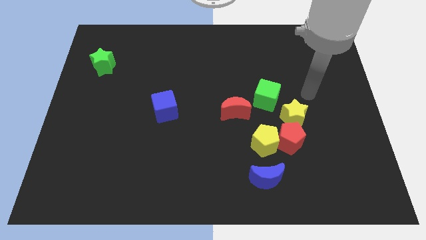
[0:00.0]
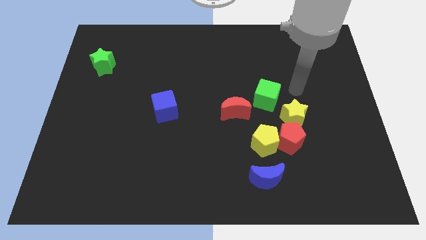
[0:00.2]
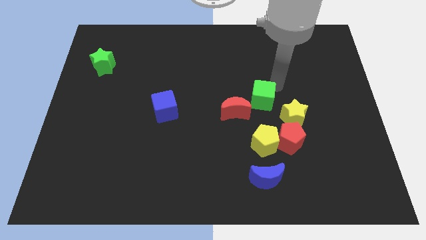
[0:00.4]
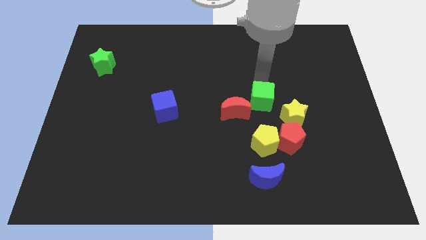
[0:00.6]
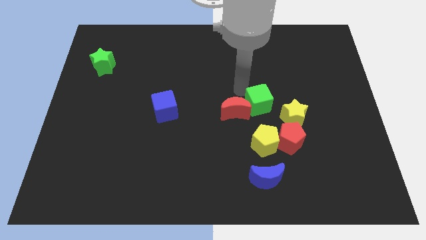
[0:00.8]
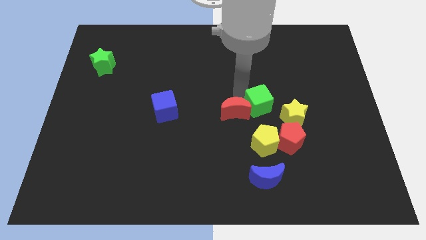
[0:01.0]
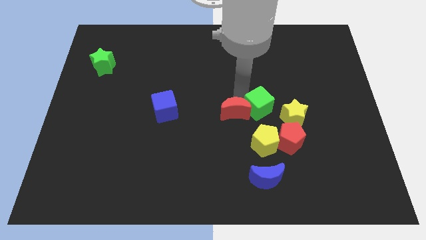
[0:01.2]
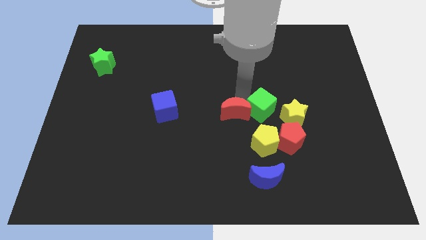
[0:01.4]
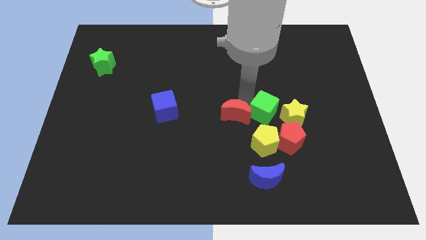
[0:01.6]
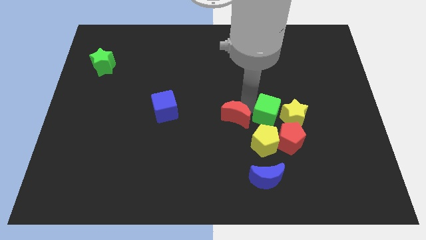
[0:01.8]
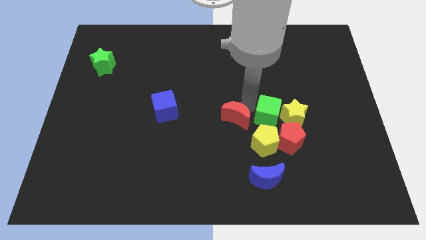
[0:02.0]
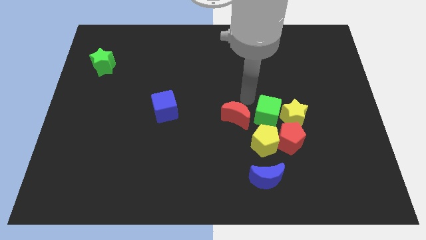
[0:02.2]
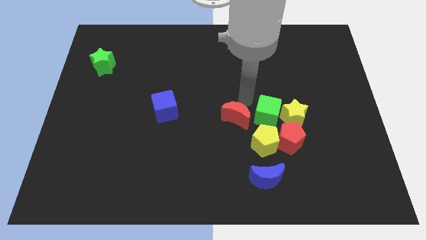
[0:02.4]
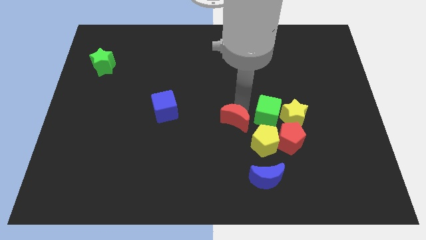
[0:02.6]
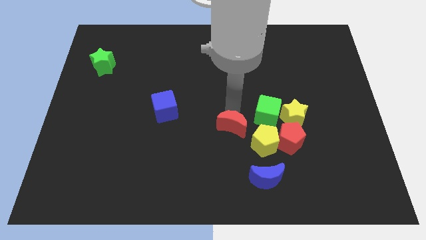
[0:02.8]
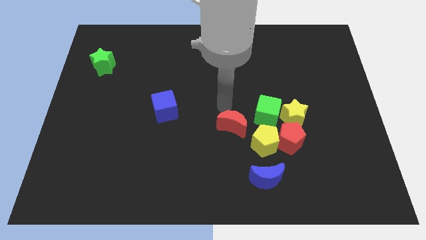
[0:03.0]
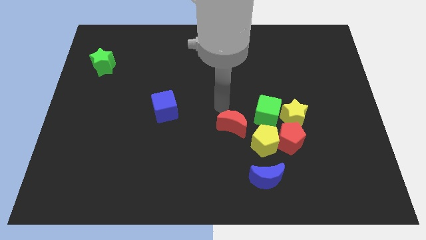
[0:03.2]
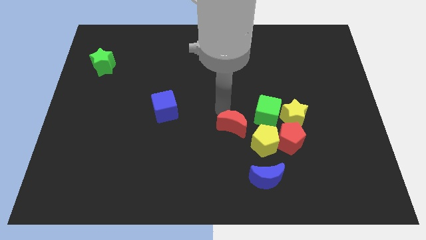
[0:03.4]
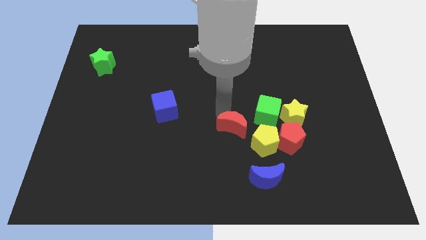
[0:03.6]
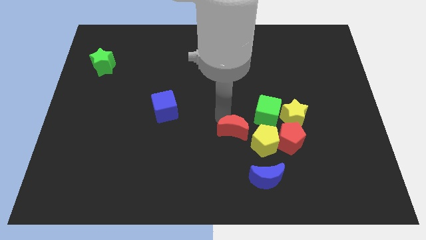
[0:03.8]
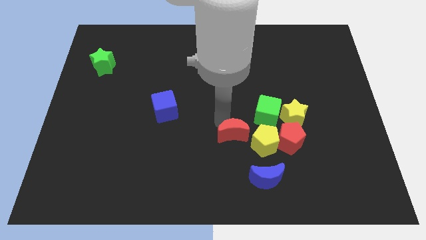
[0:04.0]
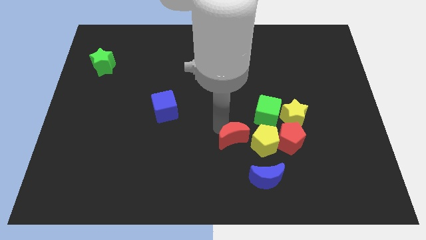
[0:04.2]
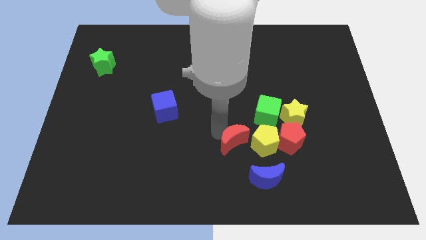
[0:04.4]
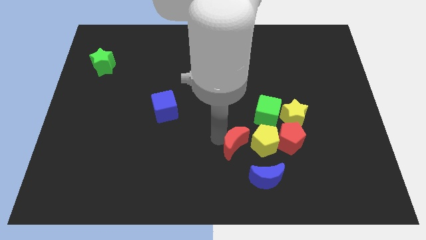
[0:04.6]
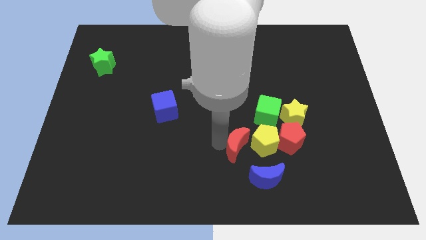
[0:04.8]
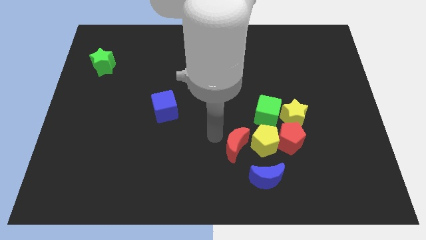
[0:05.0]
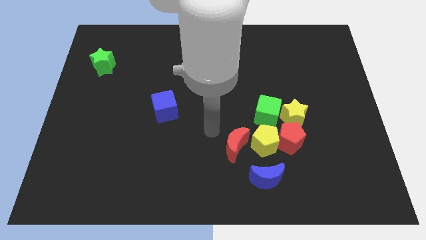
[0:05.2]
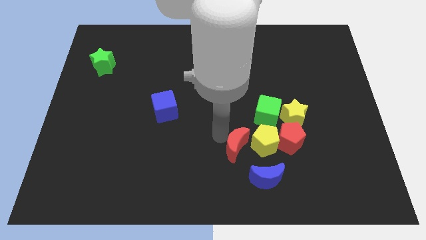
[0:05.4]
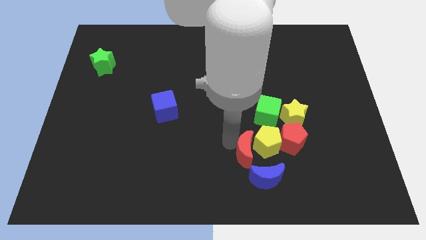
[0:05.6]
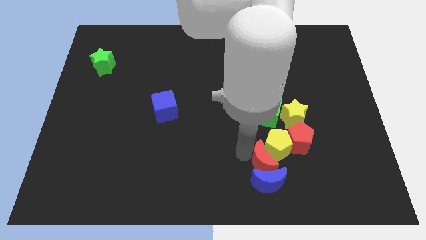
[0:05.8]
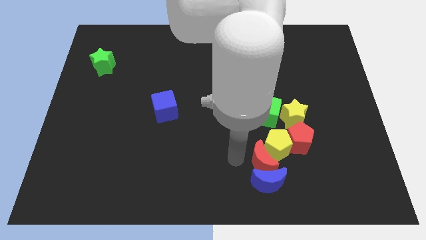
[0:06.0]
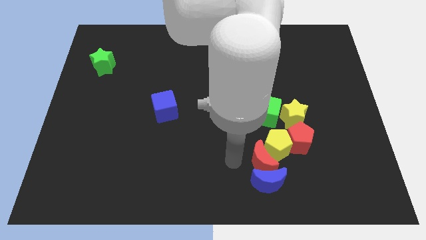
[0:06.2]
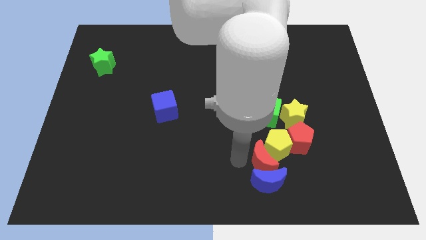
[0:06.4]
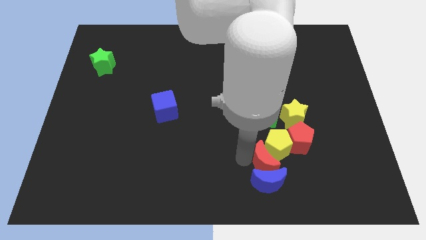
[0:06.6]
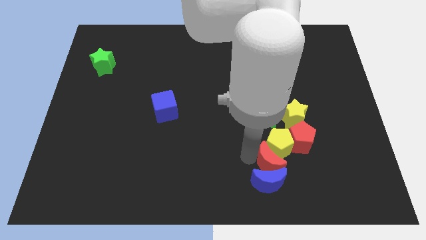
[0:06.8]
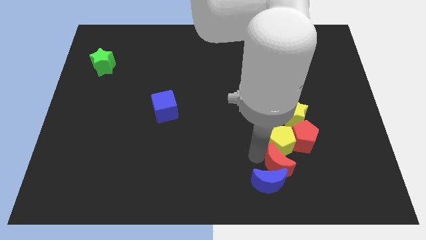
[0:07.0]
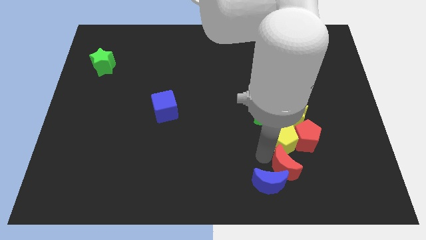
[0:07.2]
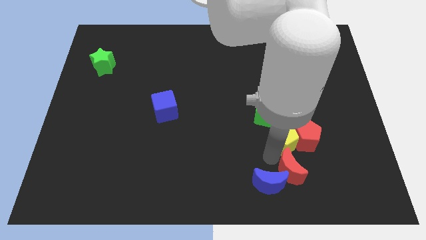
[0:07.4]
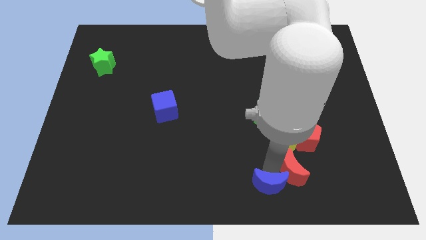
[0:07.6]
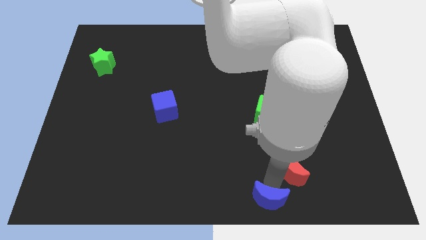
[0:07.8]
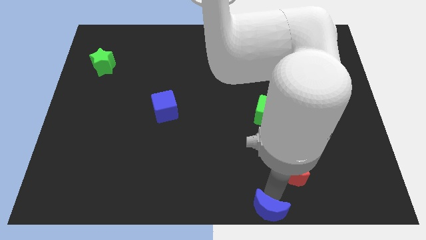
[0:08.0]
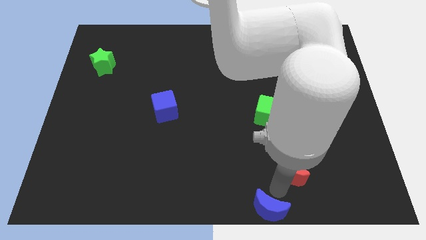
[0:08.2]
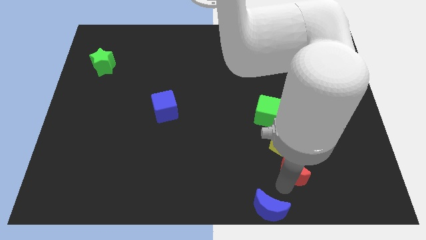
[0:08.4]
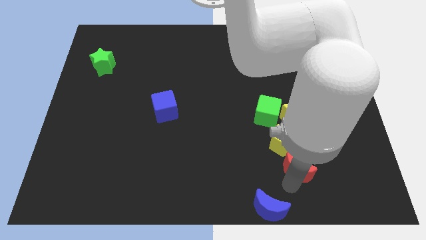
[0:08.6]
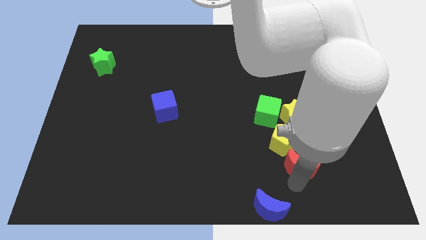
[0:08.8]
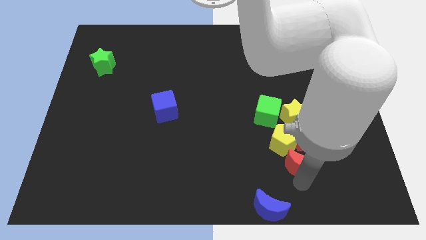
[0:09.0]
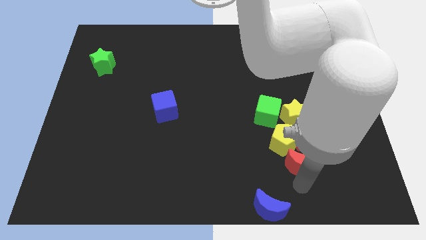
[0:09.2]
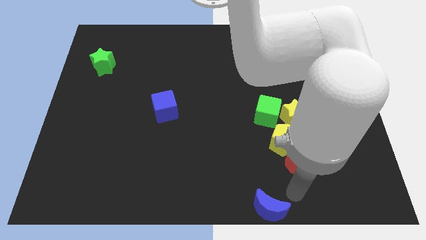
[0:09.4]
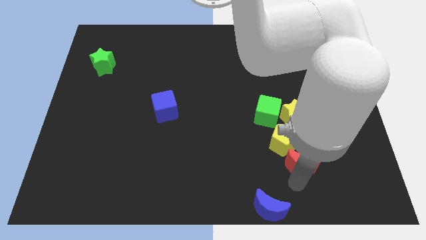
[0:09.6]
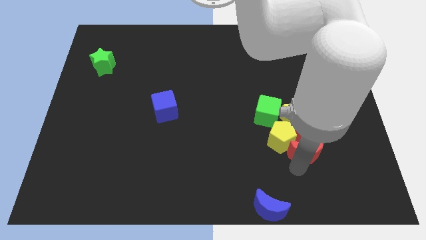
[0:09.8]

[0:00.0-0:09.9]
move the red moon to the right side of the yellow pentagon

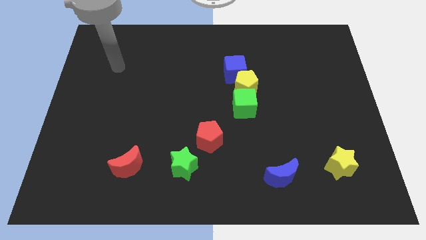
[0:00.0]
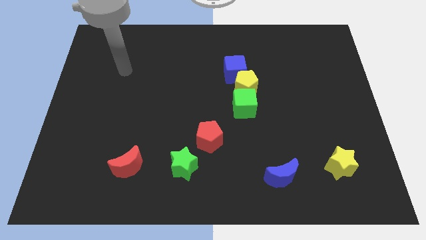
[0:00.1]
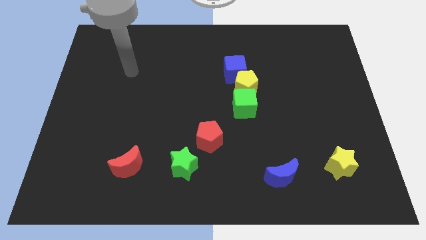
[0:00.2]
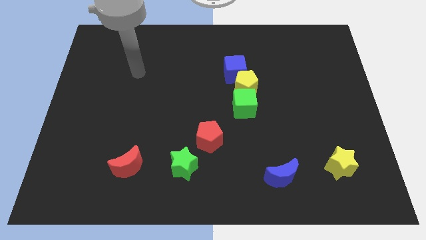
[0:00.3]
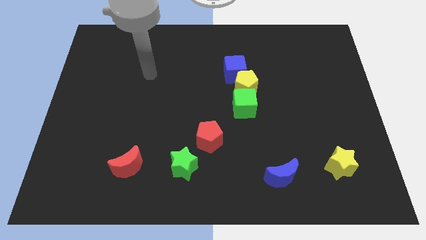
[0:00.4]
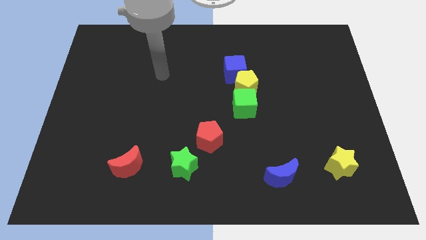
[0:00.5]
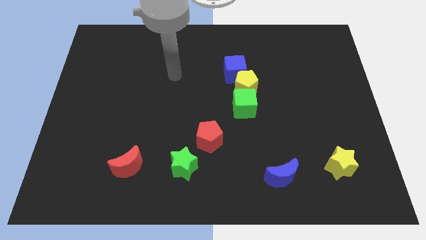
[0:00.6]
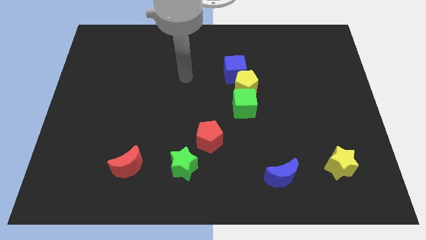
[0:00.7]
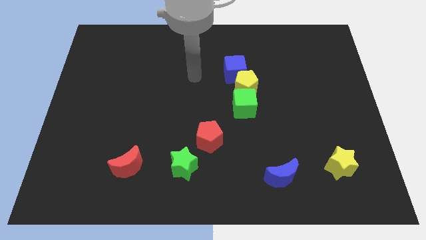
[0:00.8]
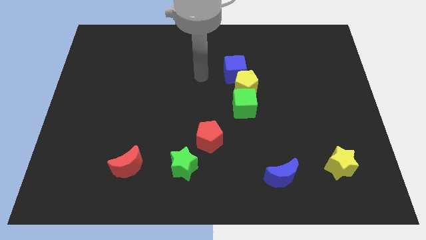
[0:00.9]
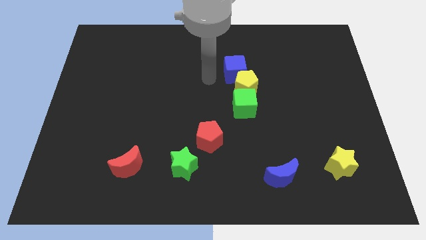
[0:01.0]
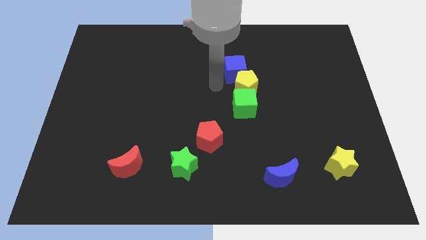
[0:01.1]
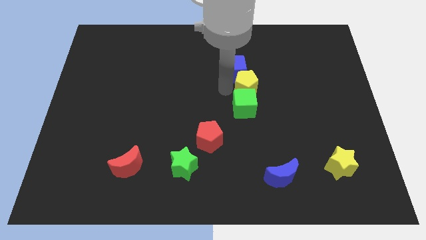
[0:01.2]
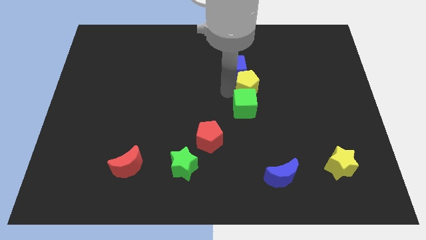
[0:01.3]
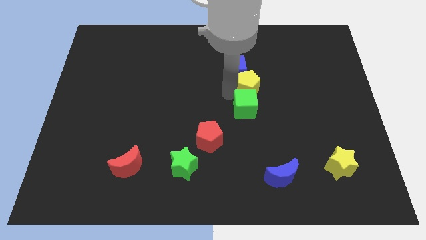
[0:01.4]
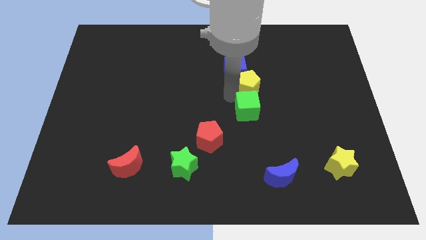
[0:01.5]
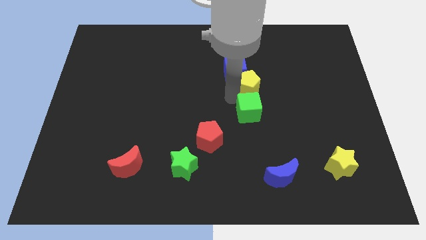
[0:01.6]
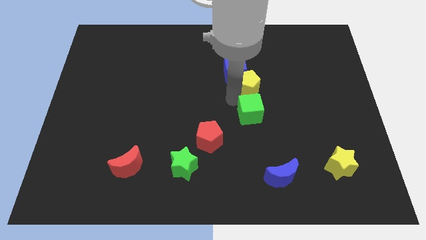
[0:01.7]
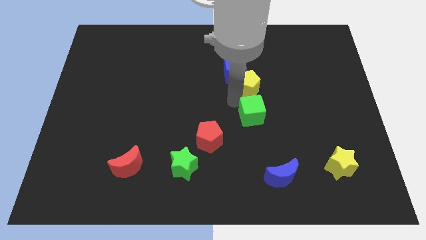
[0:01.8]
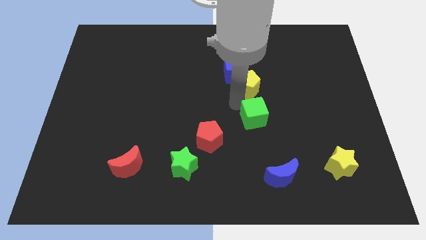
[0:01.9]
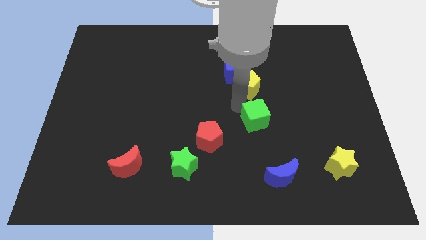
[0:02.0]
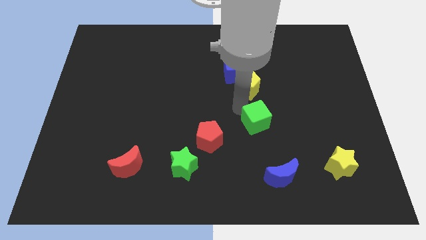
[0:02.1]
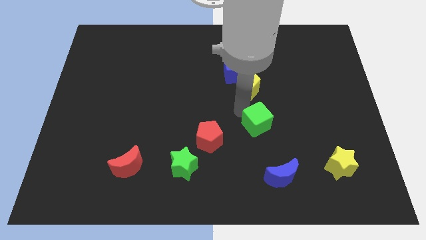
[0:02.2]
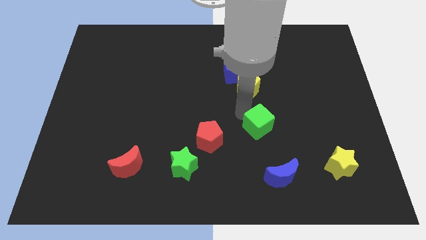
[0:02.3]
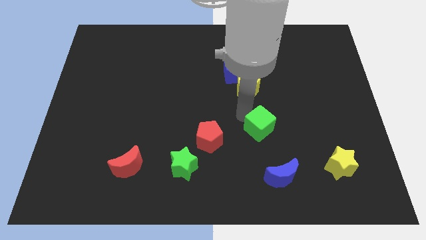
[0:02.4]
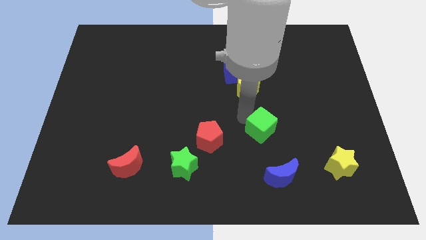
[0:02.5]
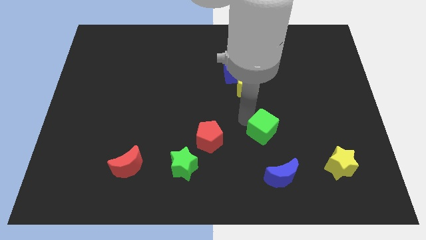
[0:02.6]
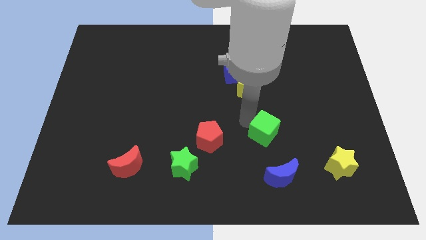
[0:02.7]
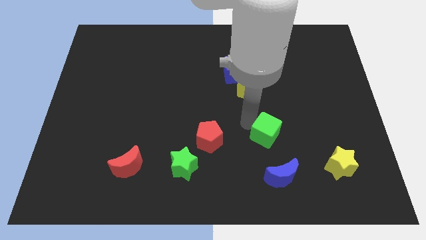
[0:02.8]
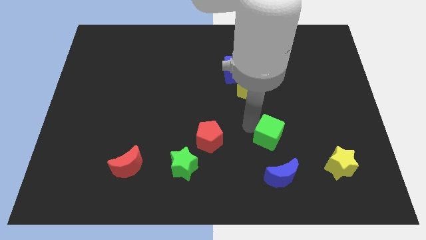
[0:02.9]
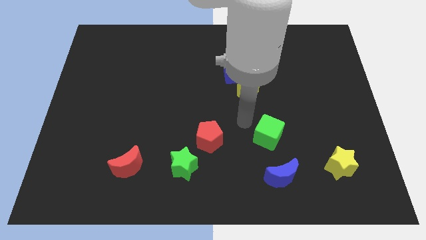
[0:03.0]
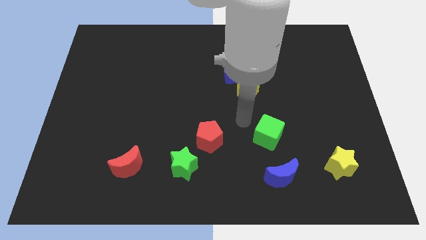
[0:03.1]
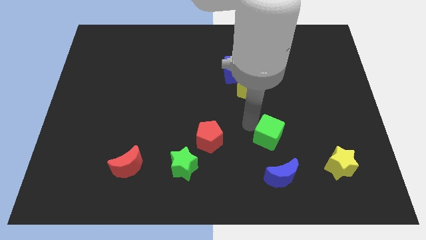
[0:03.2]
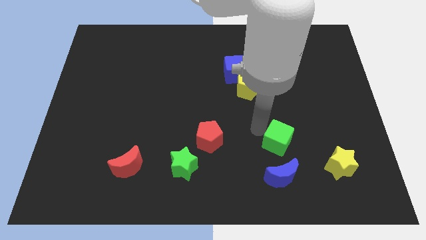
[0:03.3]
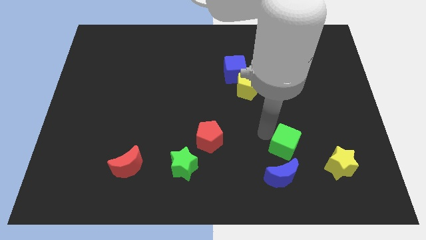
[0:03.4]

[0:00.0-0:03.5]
slide the green cube to the top right of the blue moon
